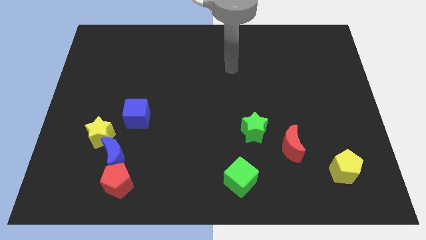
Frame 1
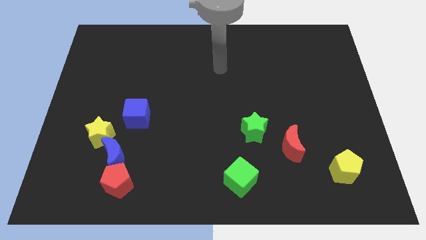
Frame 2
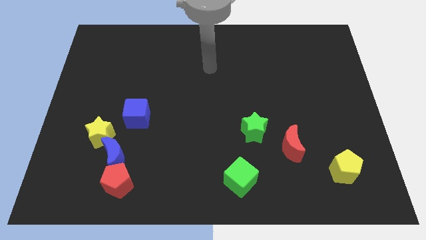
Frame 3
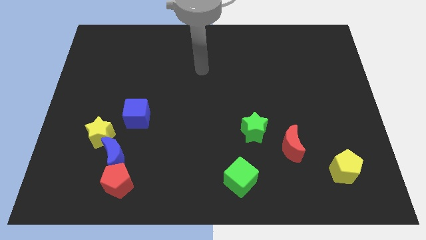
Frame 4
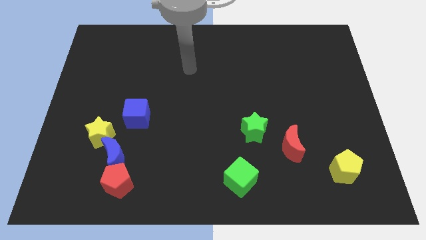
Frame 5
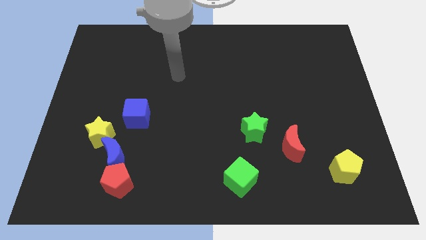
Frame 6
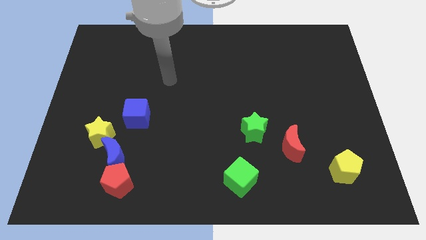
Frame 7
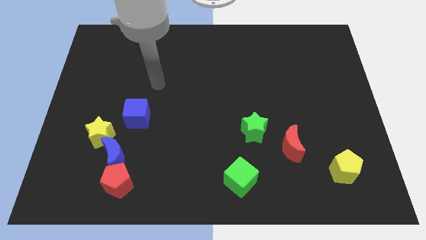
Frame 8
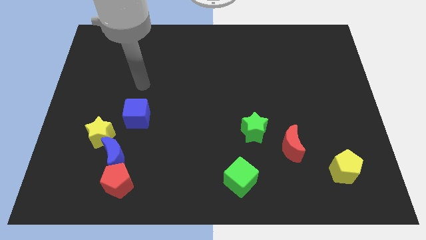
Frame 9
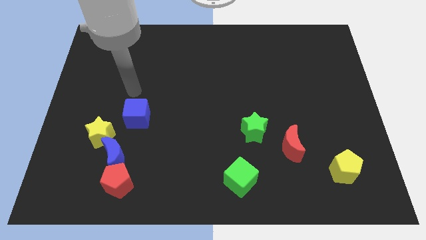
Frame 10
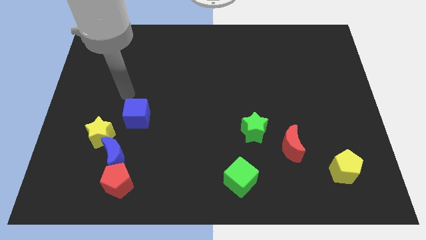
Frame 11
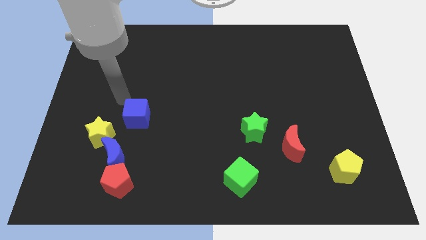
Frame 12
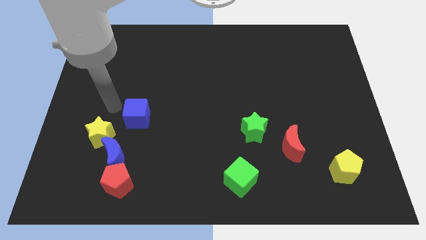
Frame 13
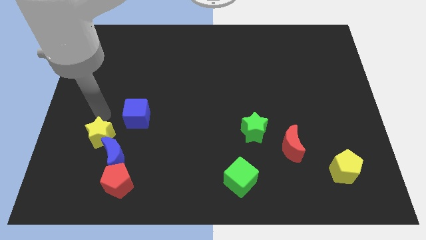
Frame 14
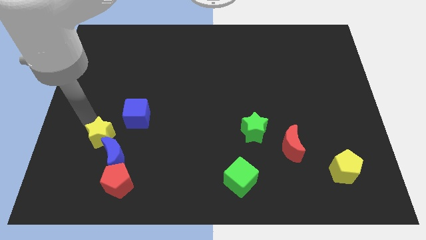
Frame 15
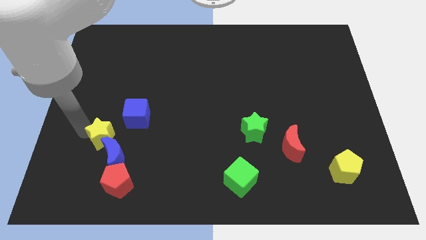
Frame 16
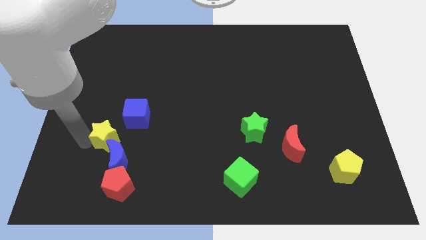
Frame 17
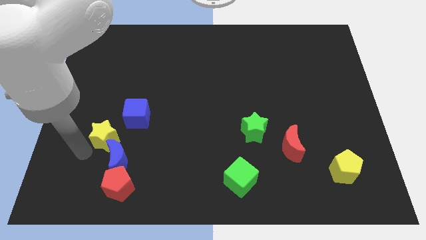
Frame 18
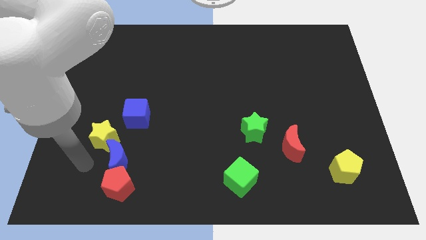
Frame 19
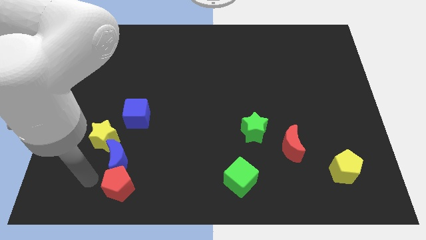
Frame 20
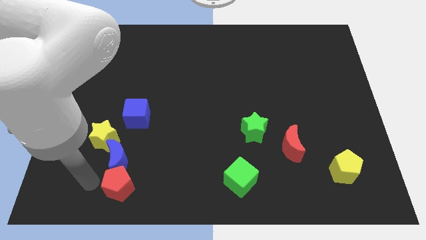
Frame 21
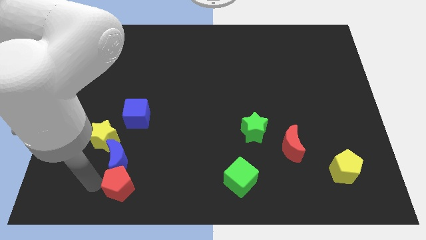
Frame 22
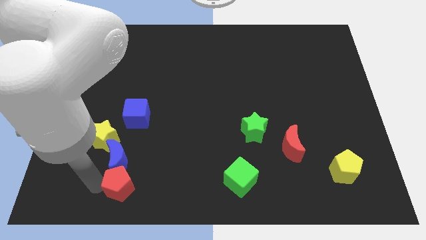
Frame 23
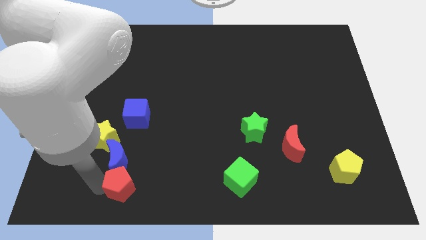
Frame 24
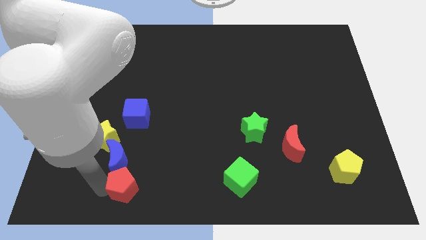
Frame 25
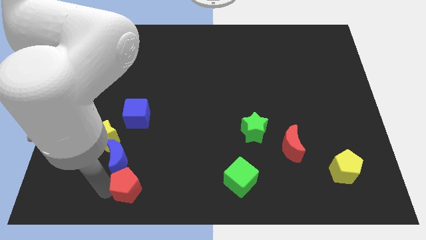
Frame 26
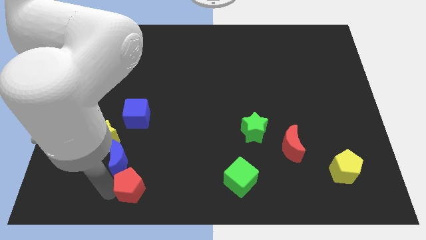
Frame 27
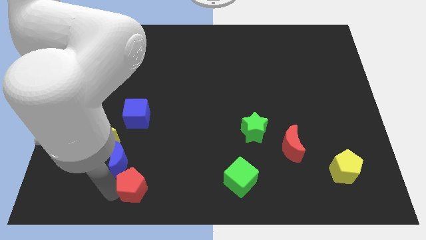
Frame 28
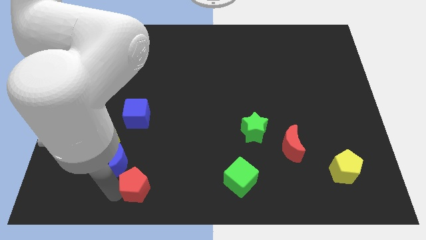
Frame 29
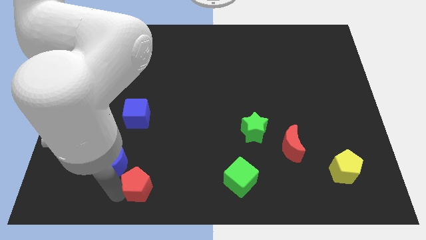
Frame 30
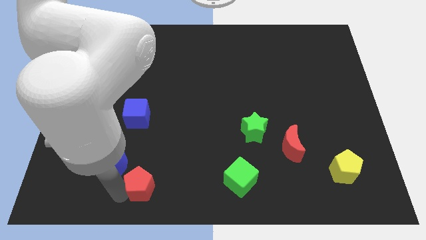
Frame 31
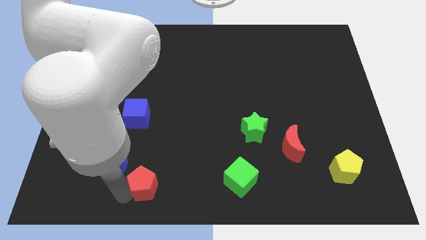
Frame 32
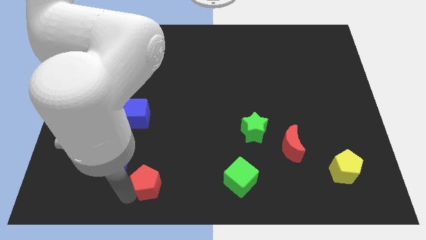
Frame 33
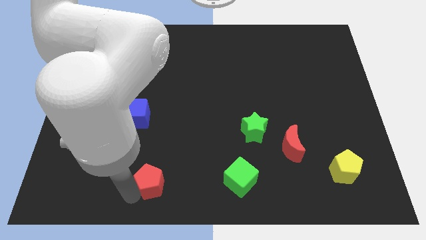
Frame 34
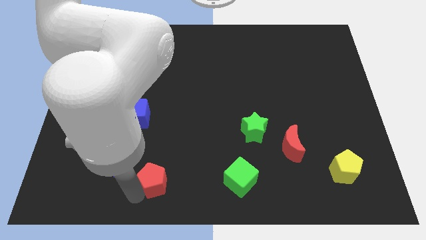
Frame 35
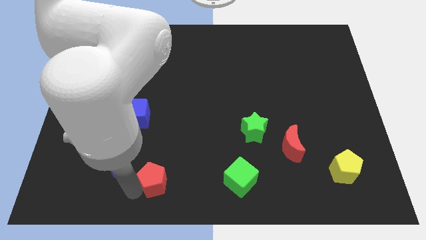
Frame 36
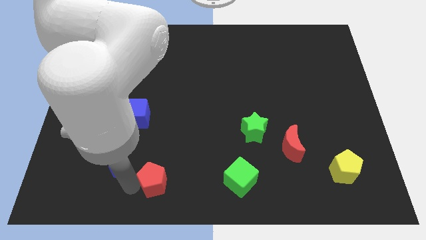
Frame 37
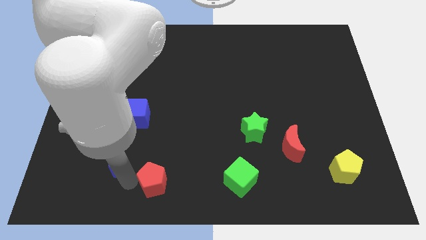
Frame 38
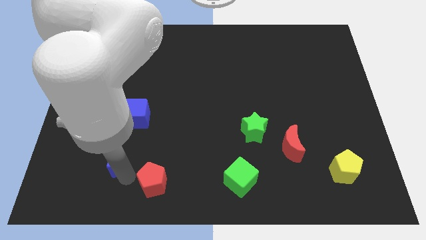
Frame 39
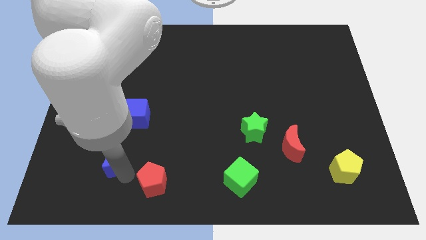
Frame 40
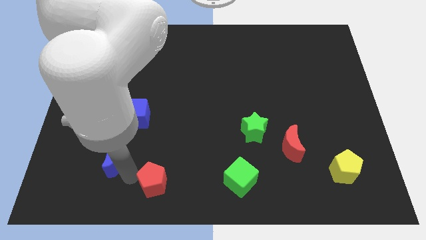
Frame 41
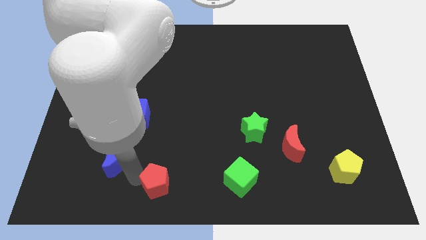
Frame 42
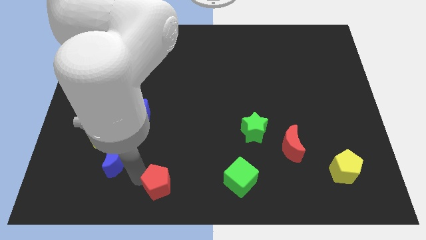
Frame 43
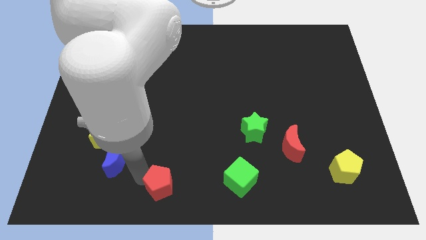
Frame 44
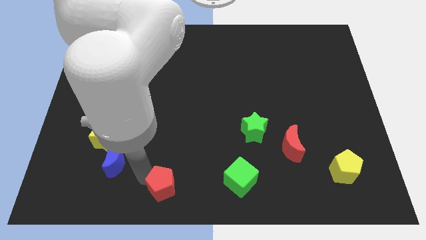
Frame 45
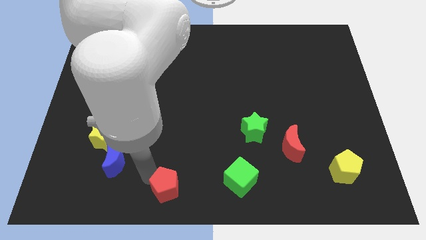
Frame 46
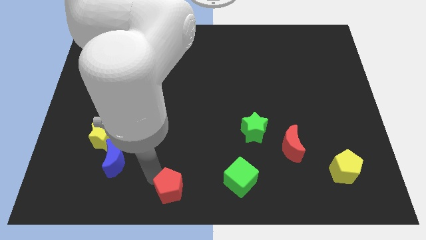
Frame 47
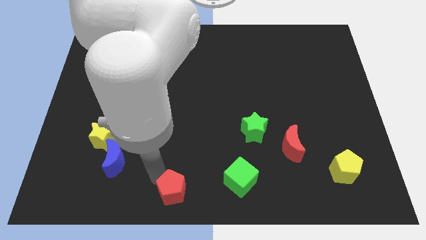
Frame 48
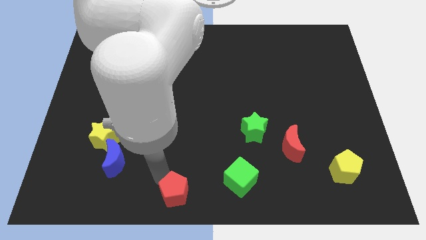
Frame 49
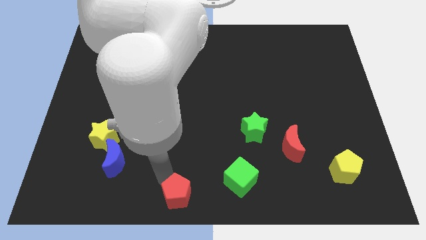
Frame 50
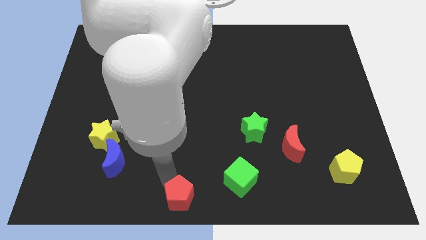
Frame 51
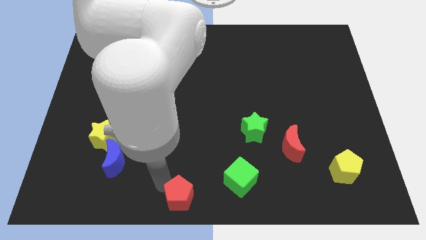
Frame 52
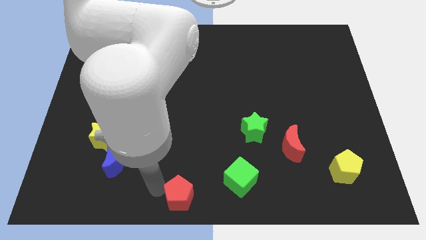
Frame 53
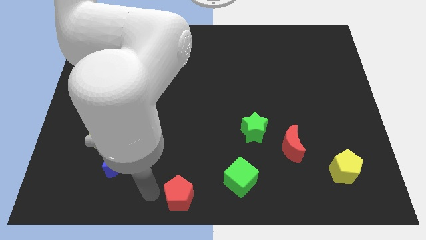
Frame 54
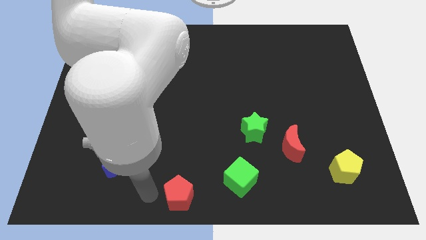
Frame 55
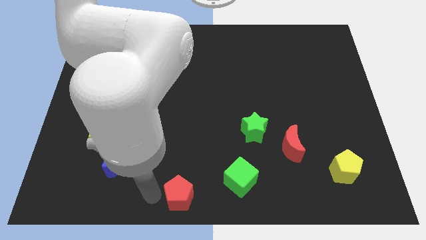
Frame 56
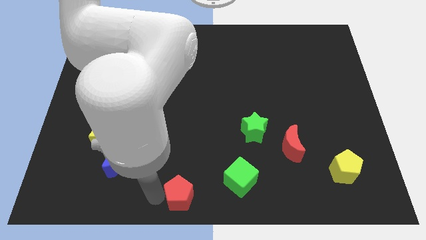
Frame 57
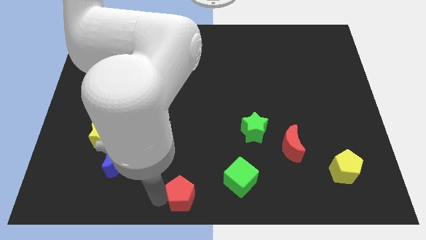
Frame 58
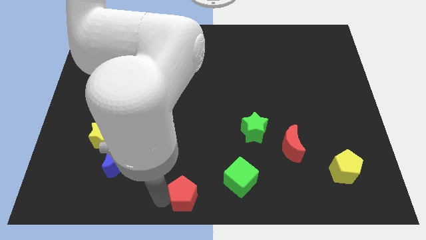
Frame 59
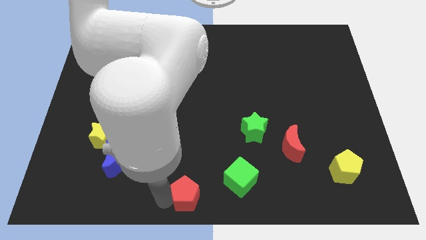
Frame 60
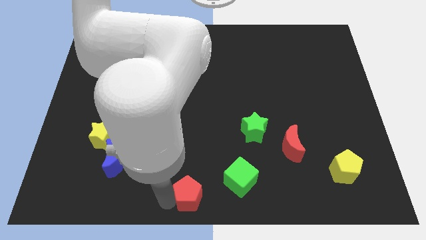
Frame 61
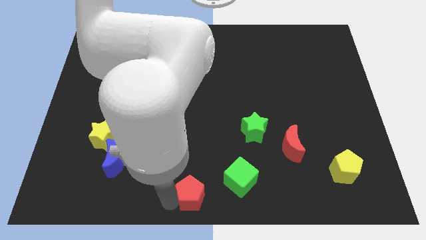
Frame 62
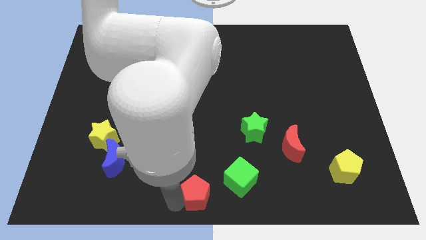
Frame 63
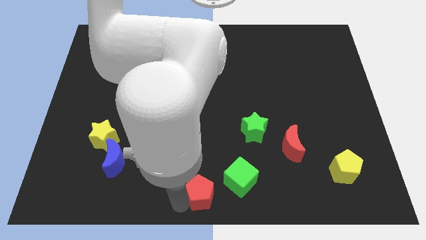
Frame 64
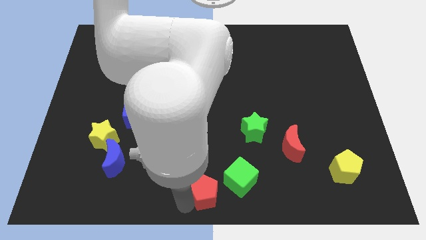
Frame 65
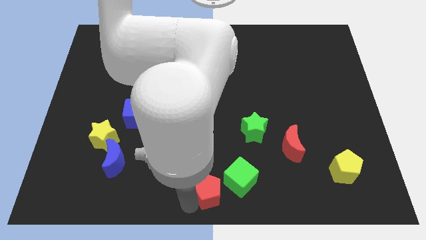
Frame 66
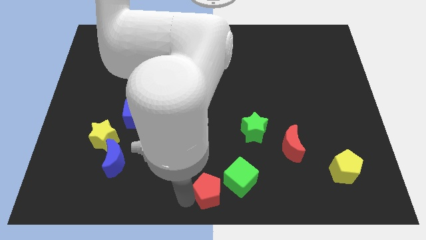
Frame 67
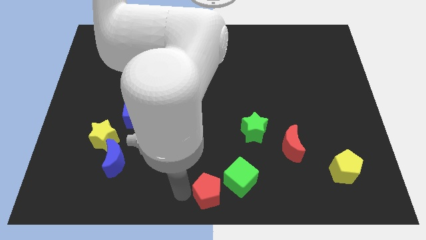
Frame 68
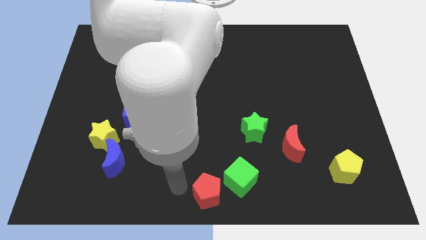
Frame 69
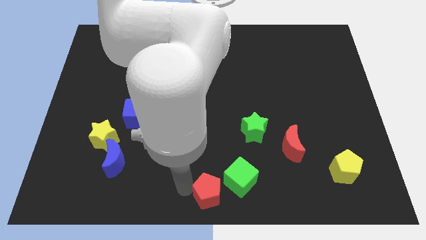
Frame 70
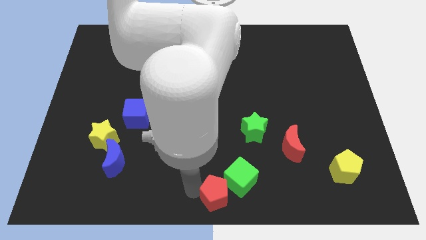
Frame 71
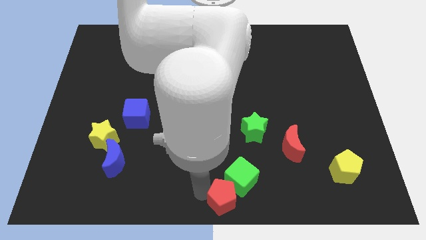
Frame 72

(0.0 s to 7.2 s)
push the red pentagon right

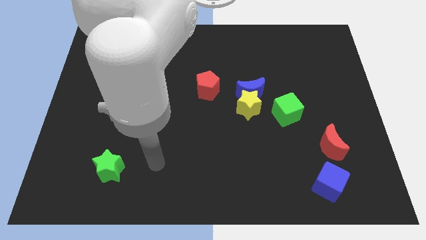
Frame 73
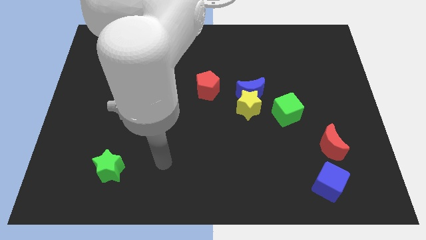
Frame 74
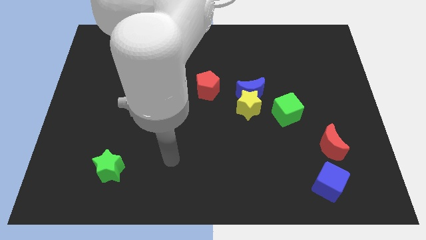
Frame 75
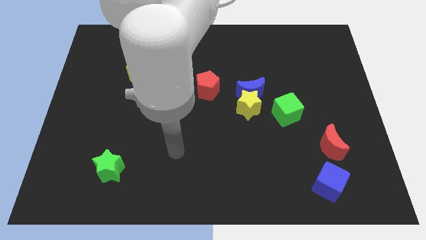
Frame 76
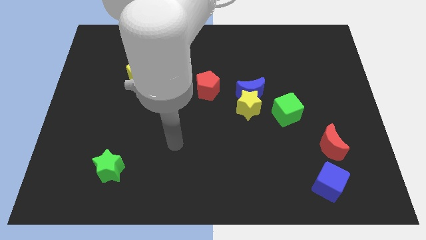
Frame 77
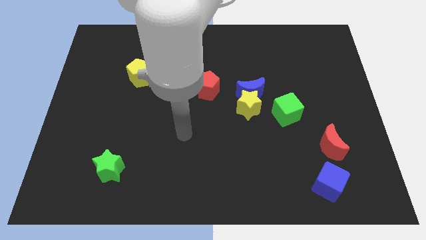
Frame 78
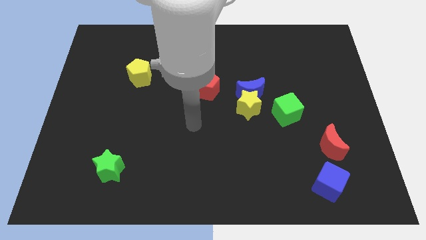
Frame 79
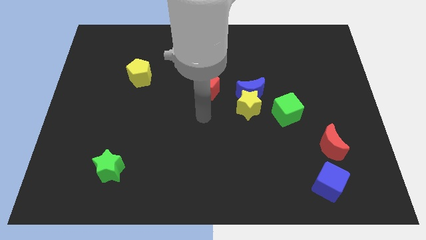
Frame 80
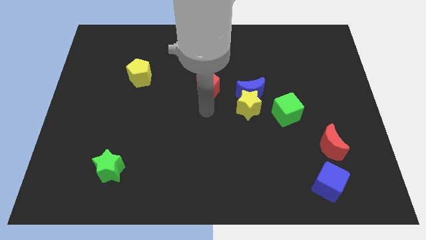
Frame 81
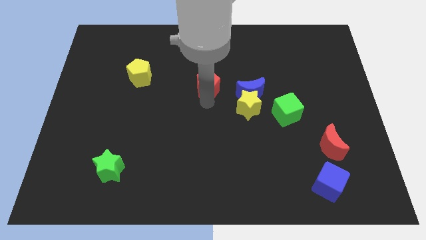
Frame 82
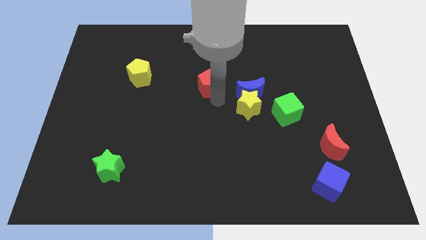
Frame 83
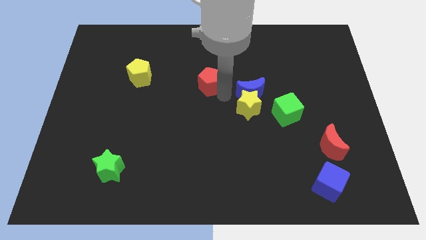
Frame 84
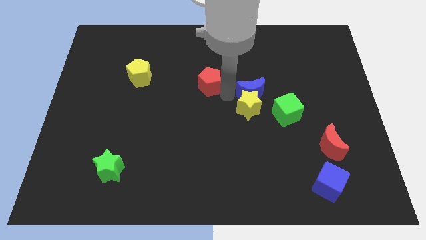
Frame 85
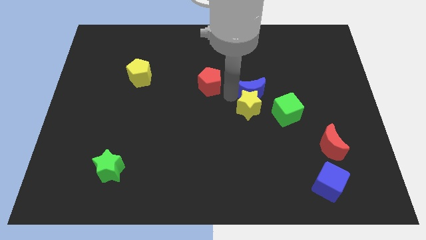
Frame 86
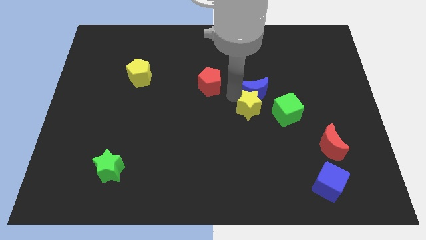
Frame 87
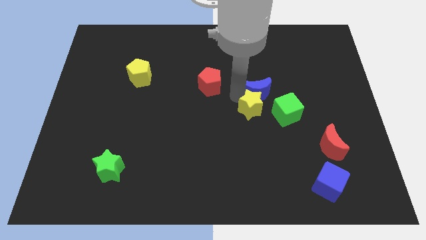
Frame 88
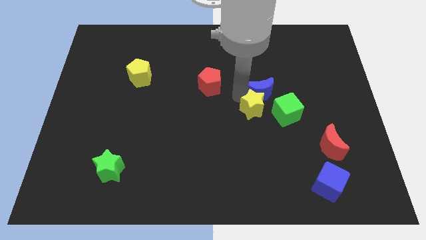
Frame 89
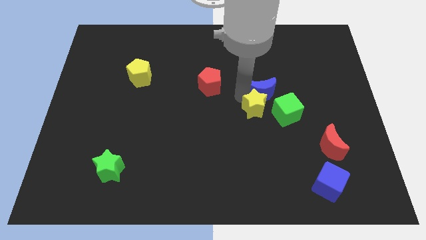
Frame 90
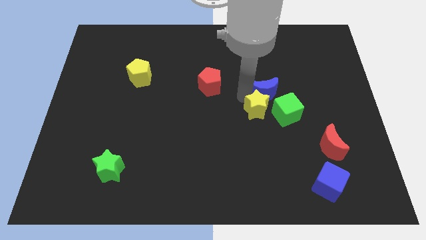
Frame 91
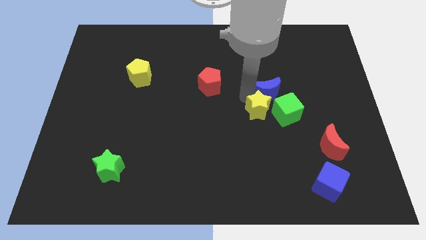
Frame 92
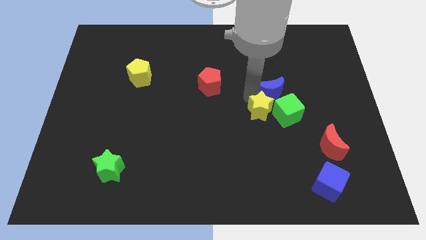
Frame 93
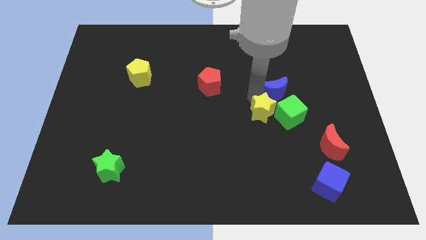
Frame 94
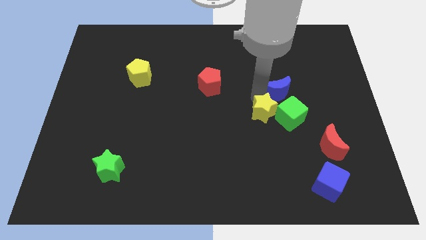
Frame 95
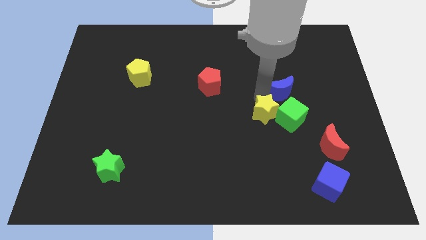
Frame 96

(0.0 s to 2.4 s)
slightly slide the blue moon to the right
